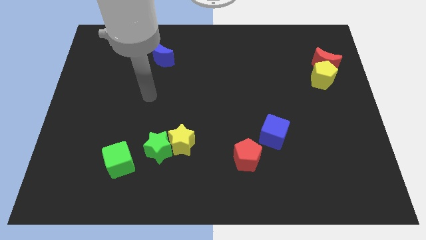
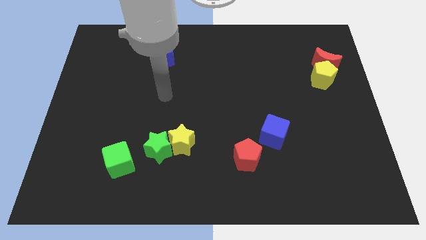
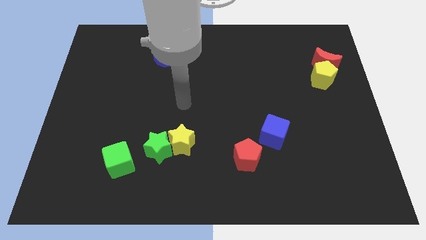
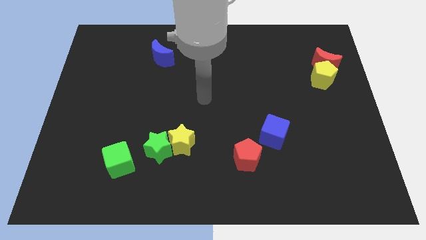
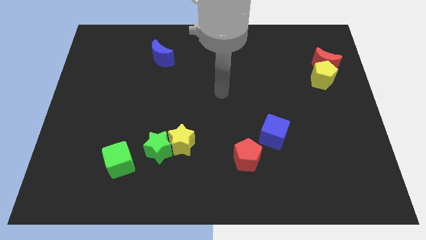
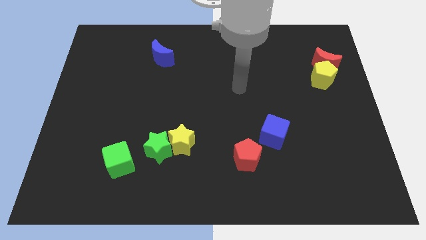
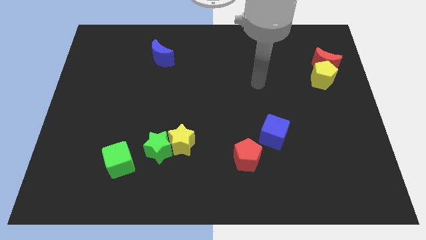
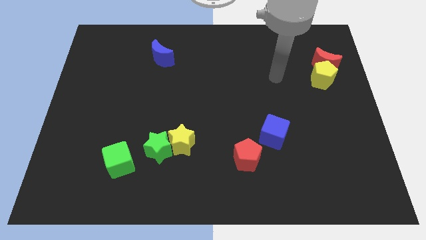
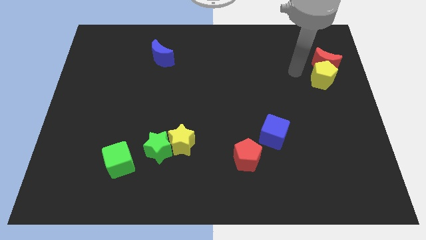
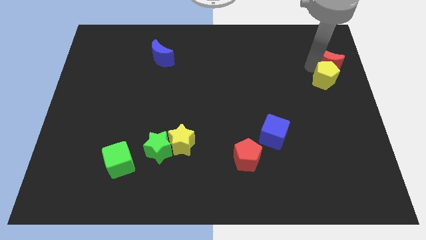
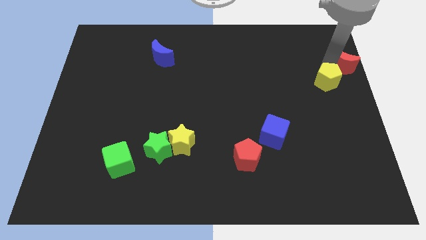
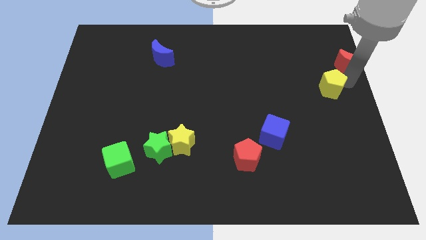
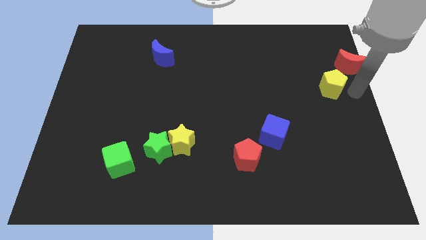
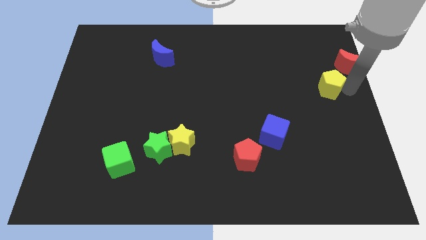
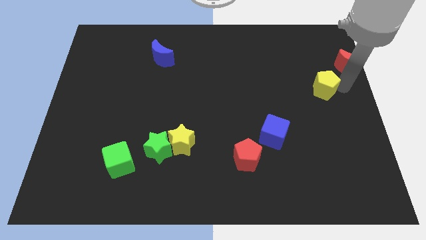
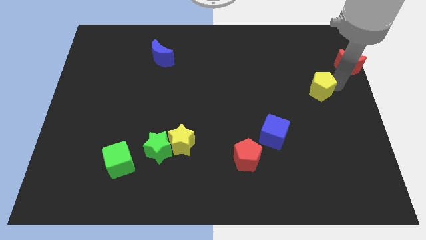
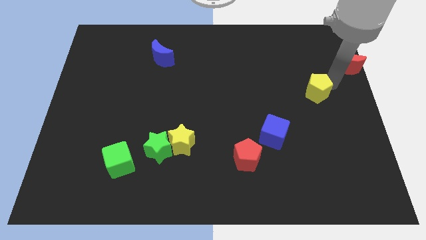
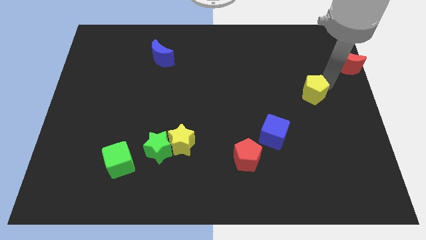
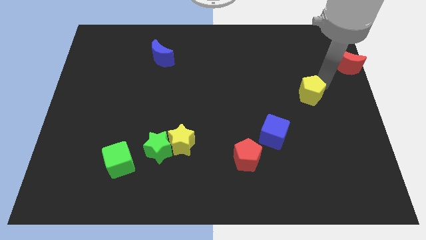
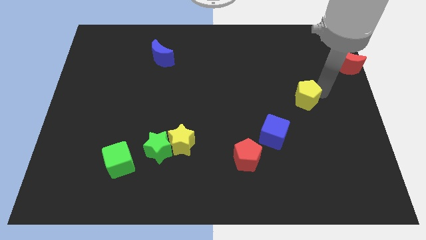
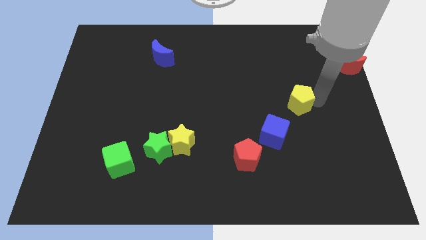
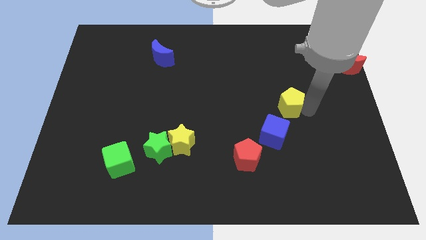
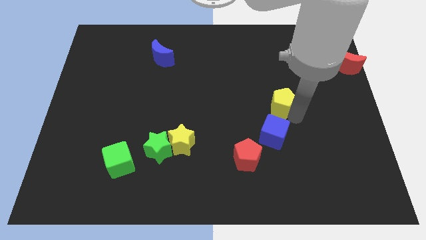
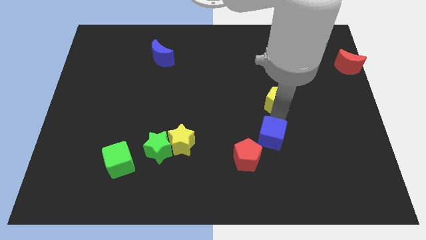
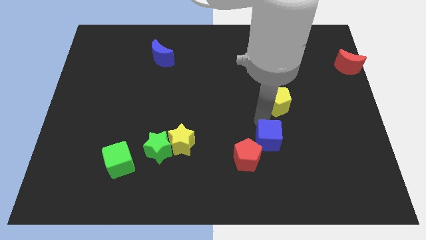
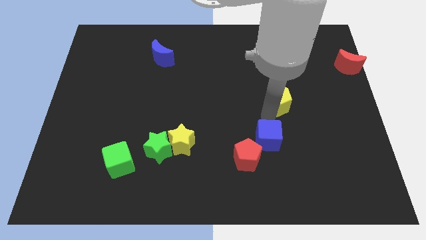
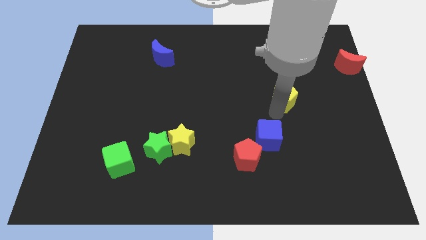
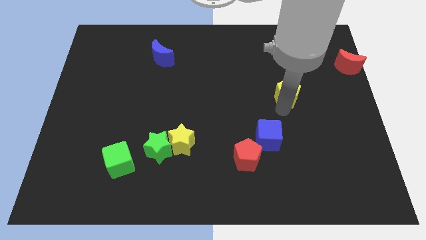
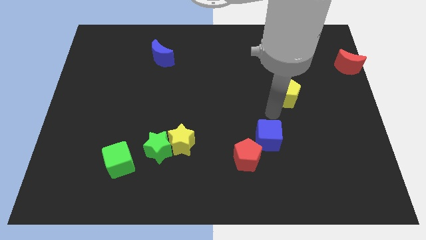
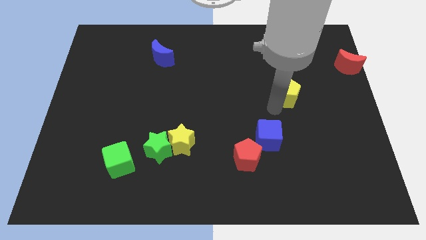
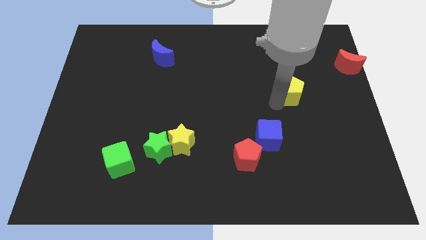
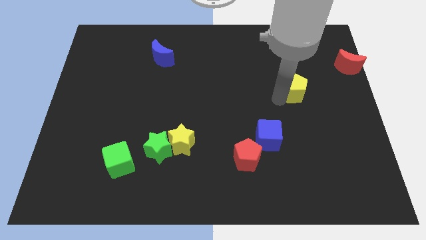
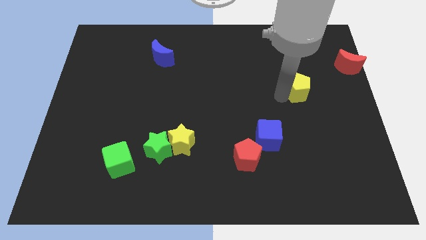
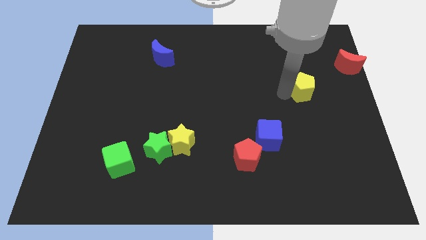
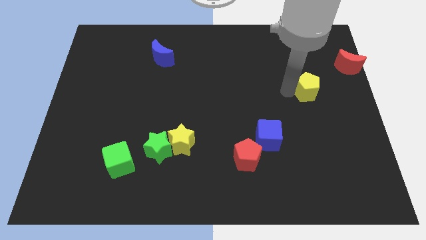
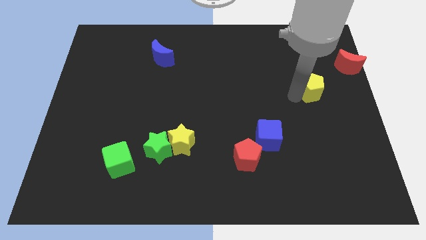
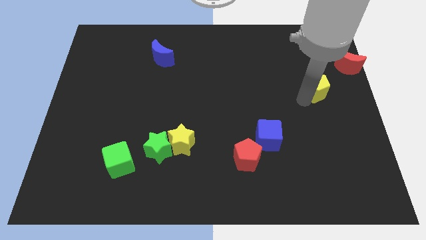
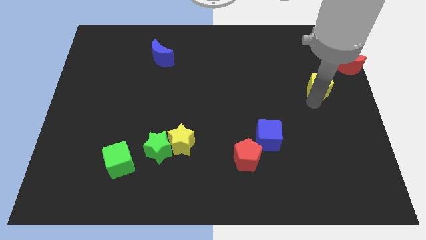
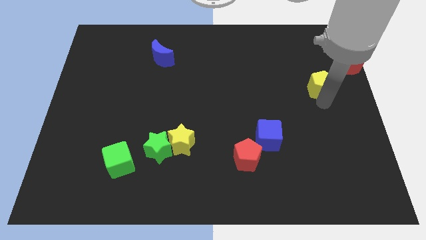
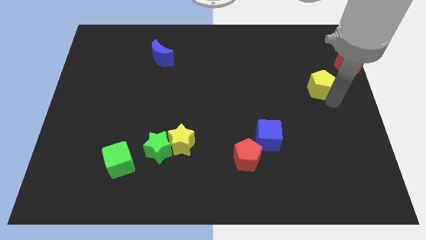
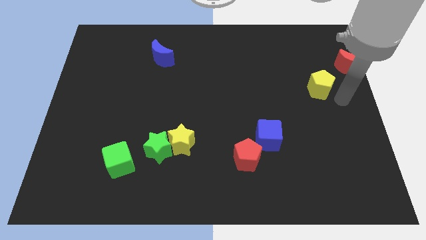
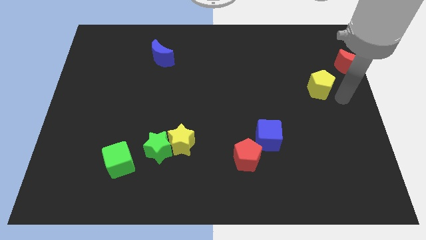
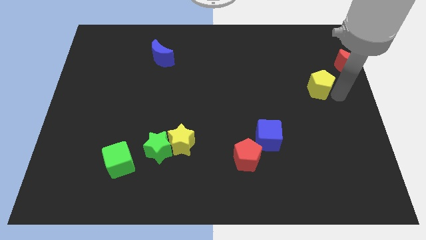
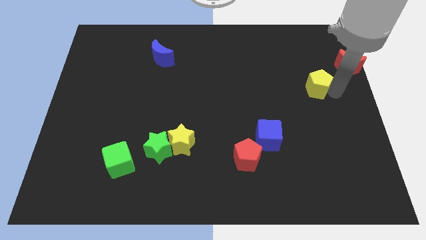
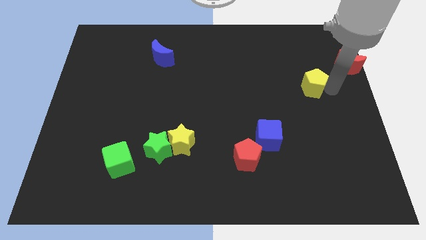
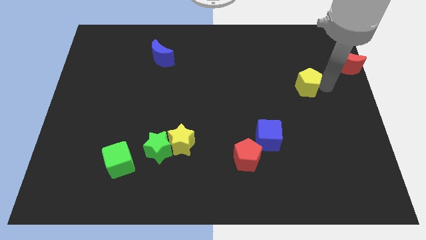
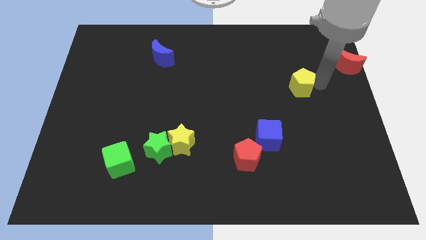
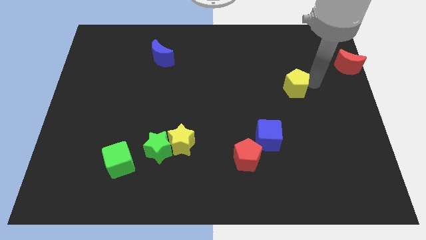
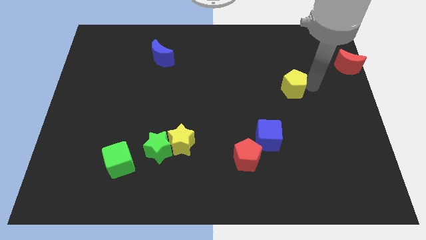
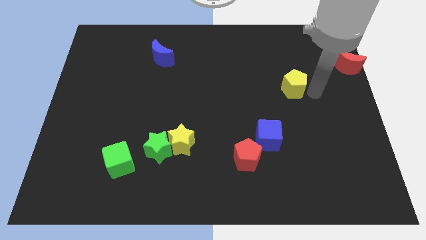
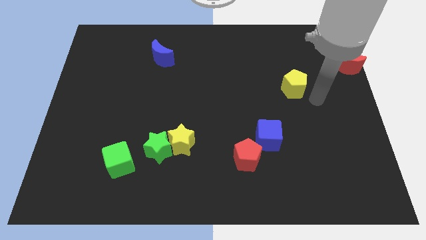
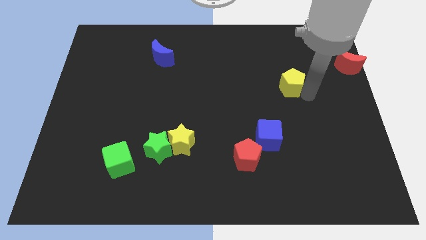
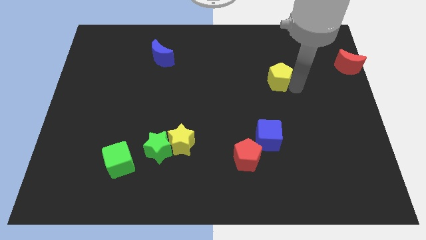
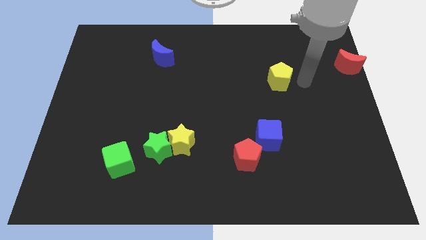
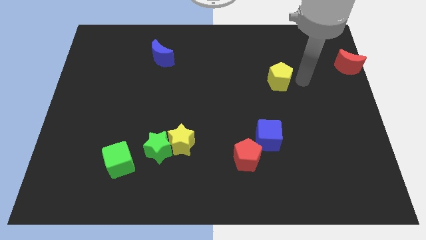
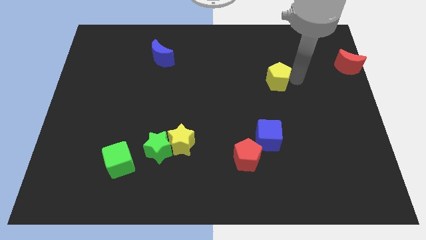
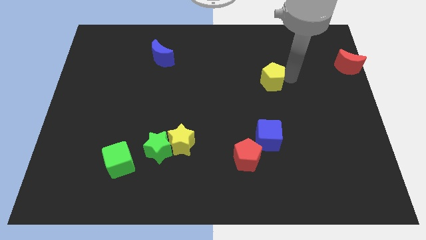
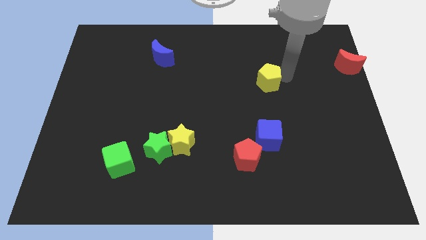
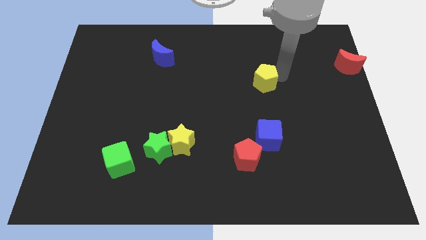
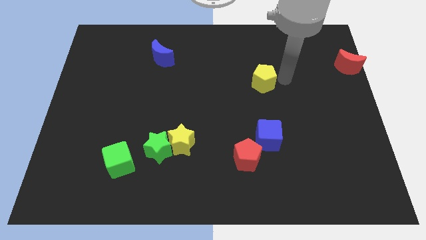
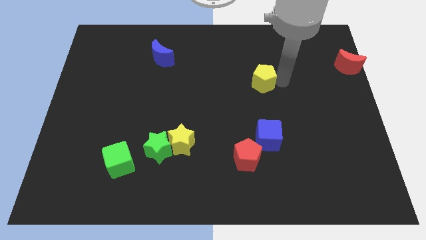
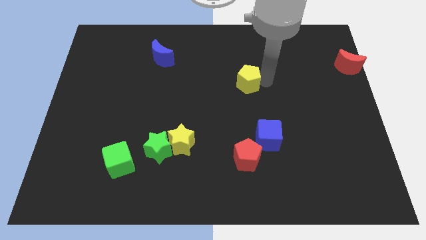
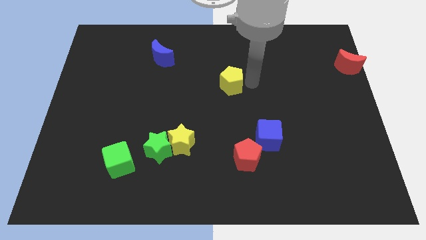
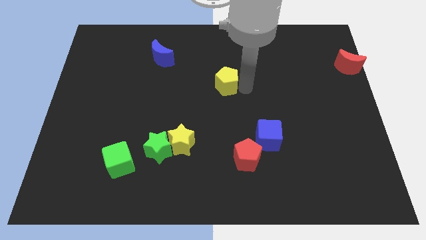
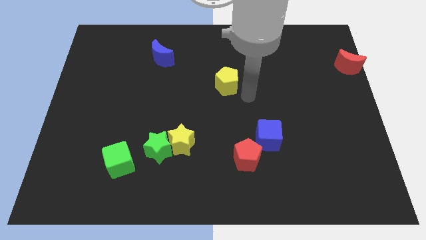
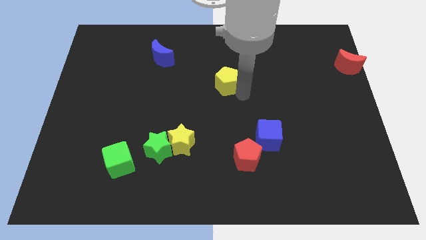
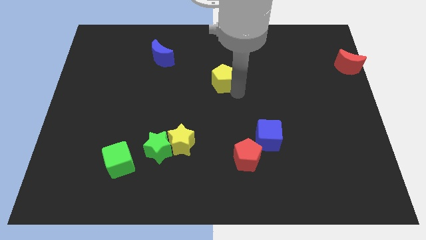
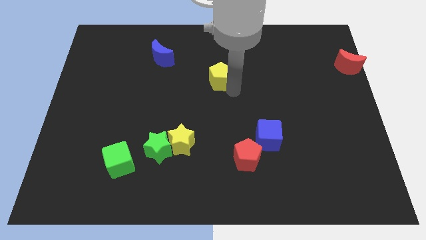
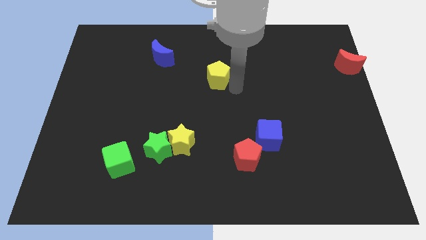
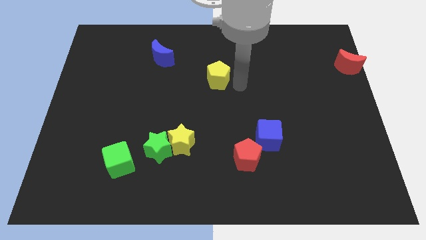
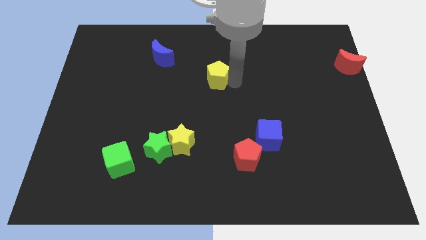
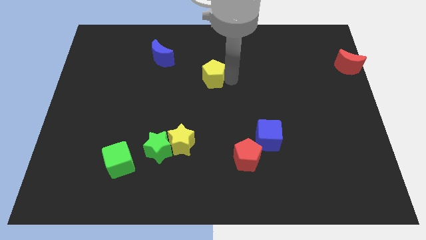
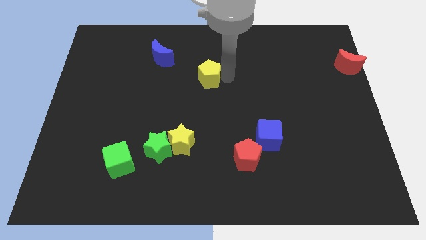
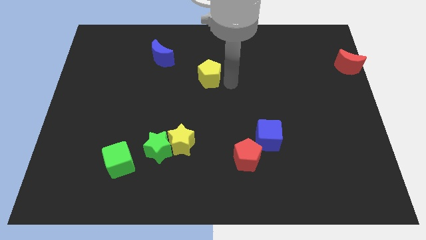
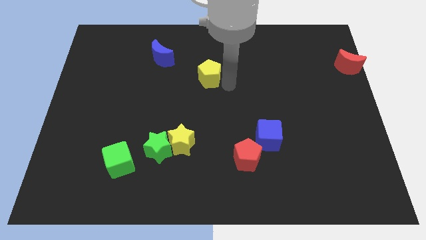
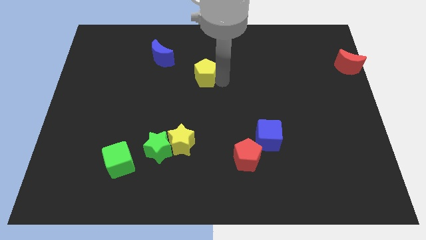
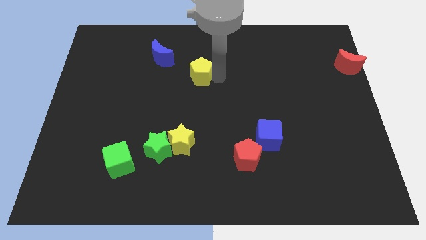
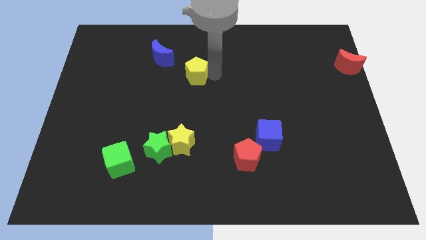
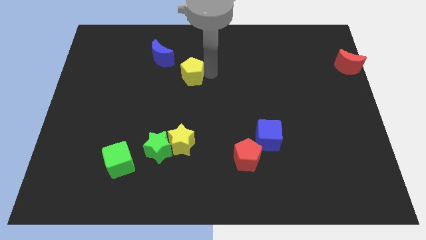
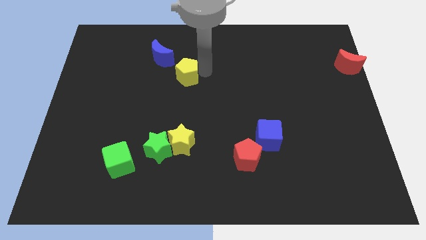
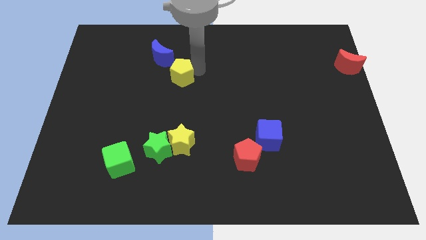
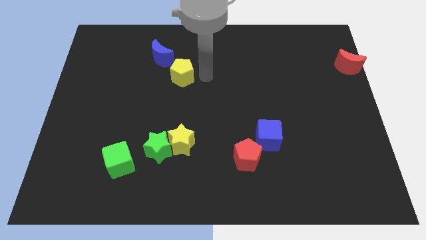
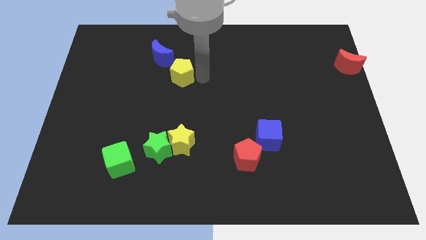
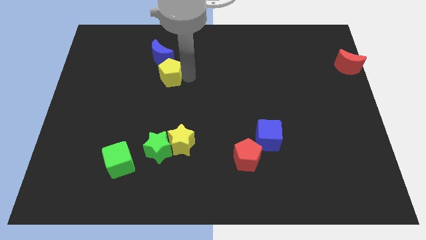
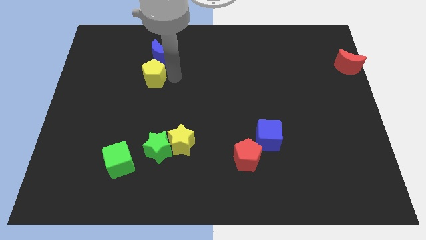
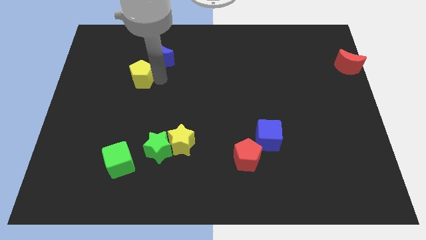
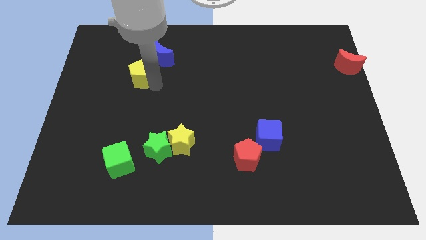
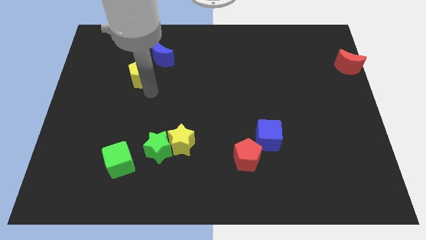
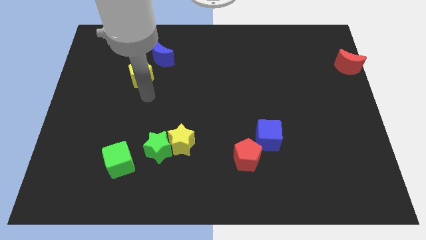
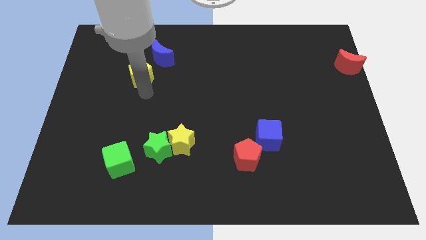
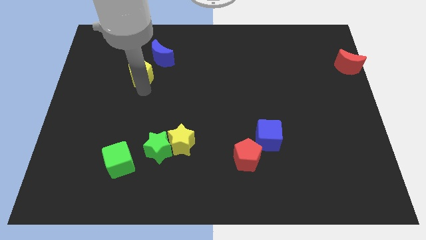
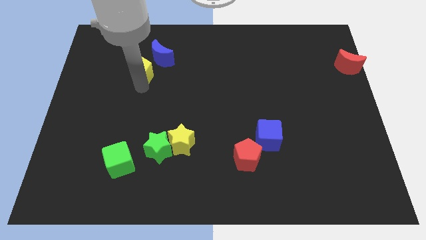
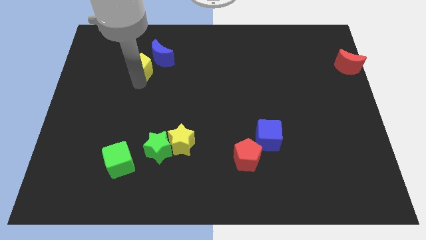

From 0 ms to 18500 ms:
push the yellow pentagon just left of the blue moon
